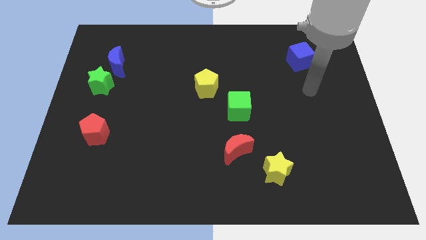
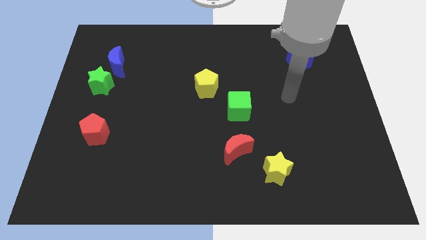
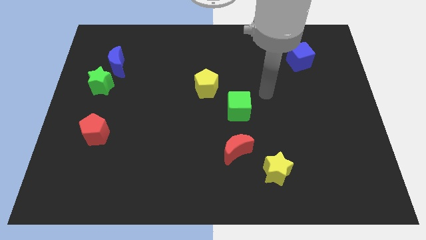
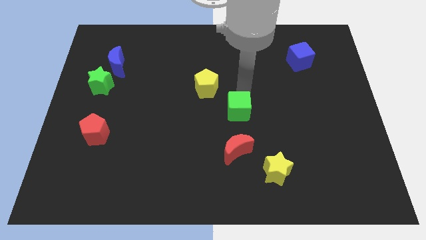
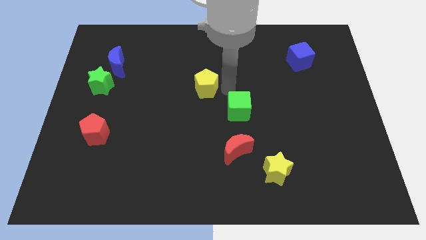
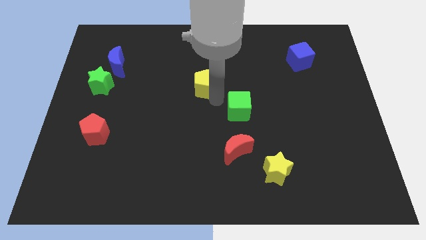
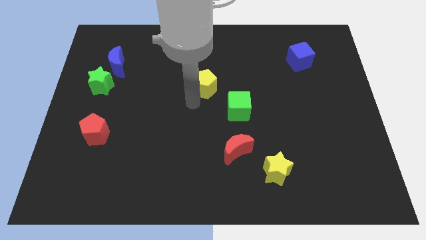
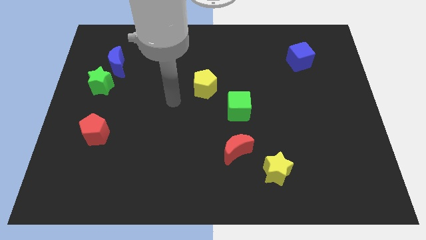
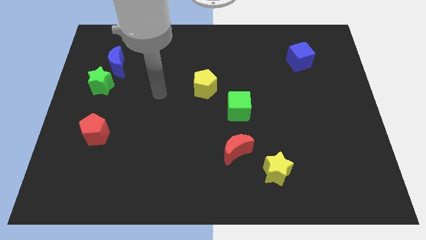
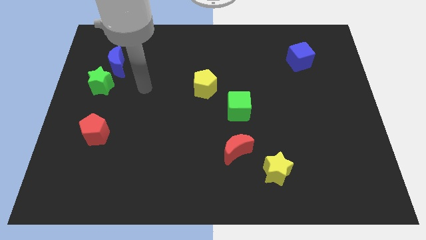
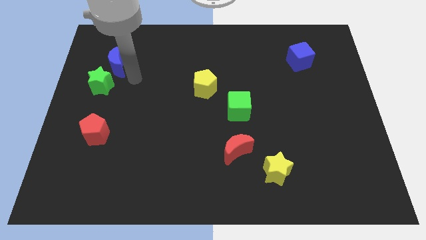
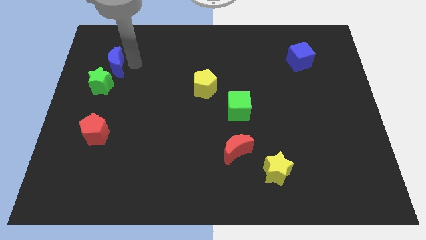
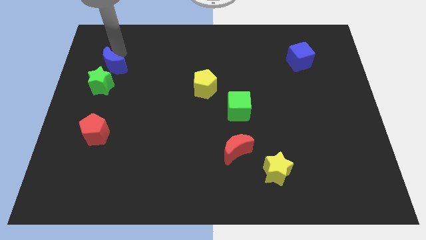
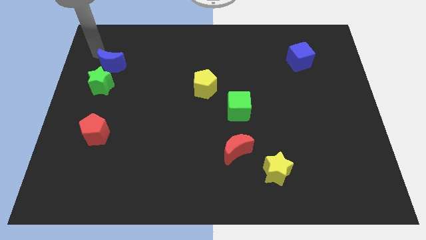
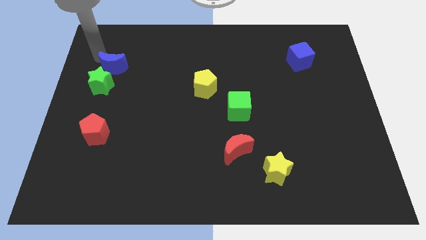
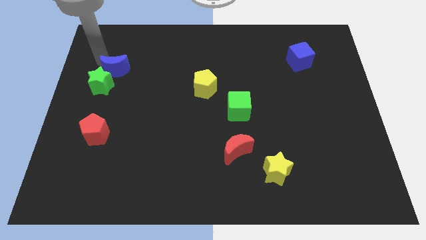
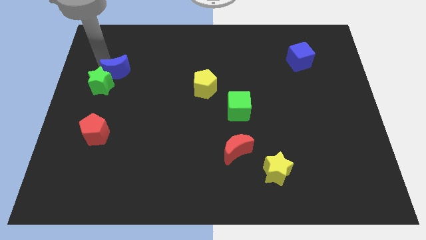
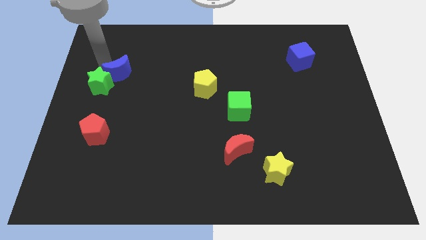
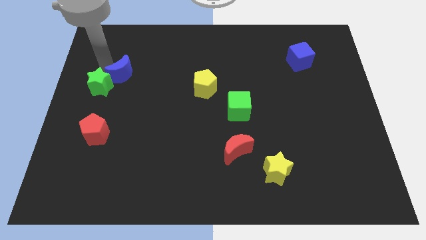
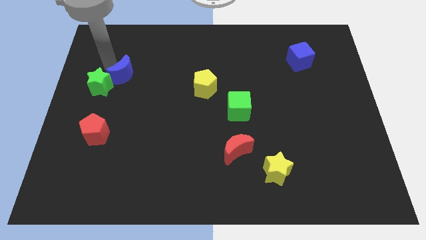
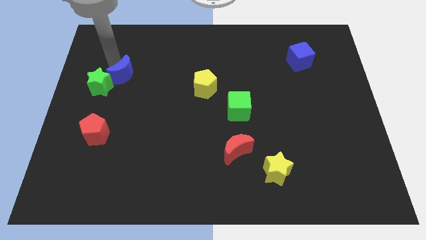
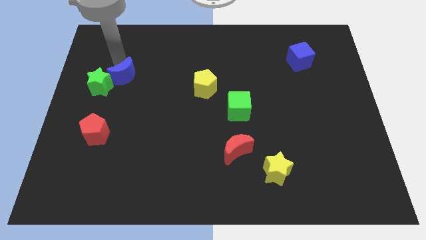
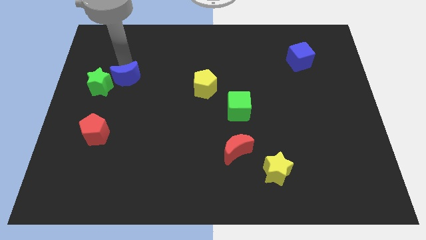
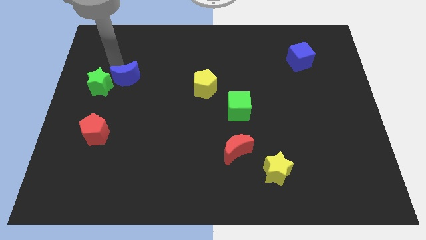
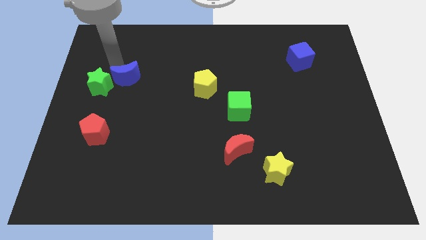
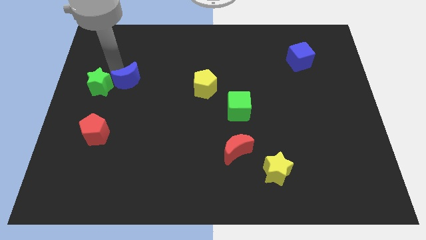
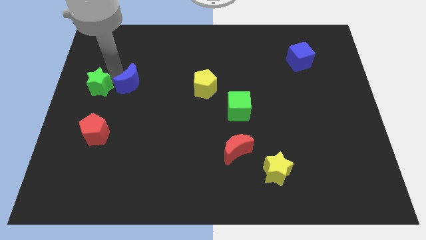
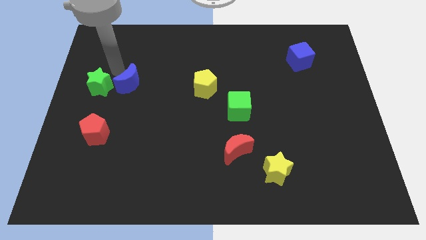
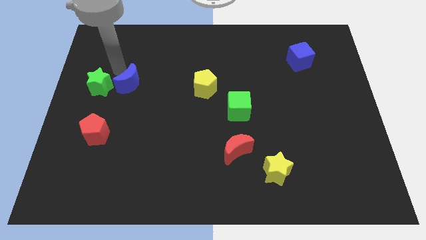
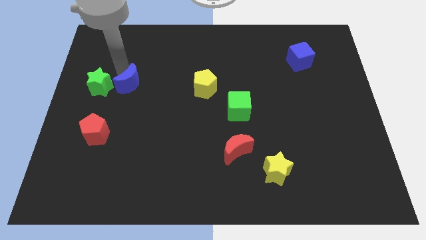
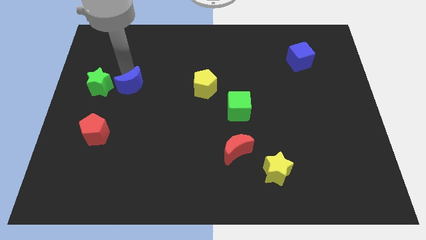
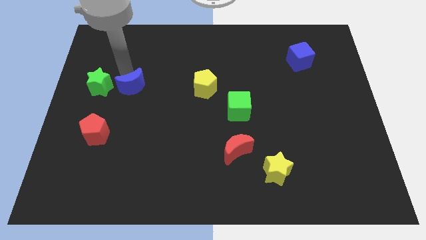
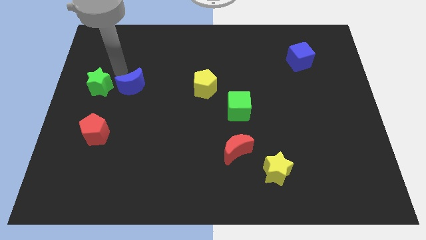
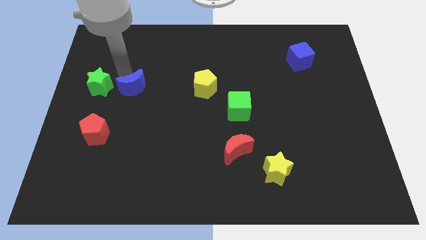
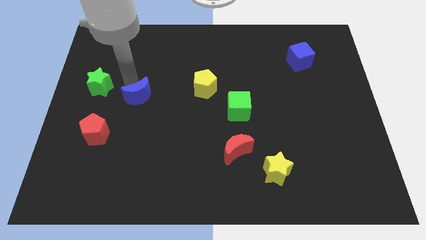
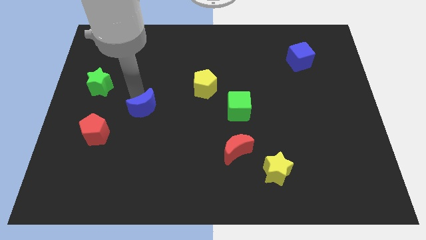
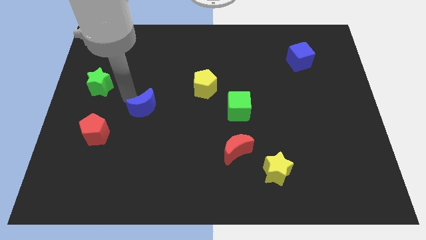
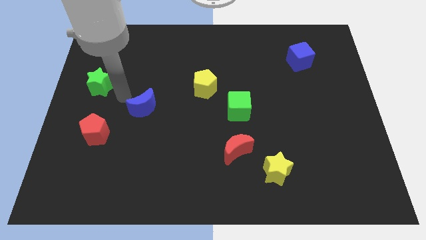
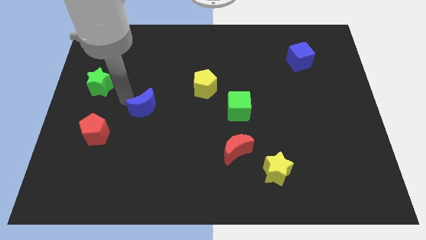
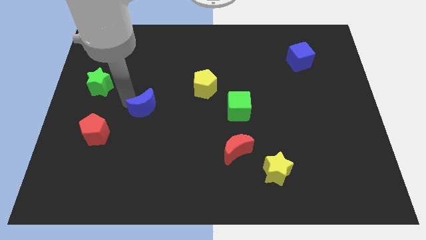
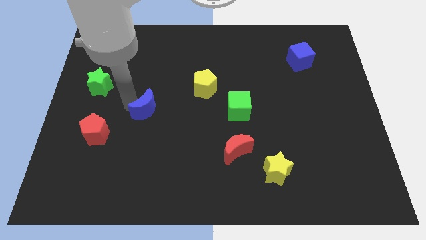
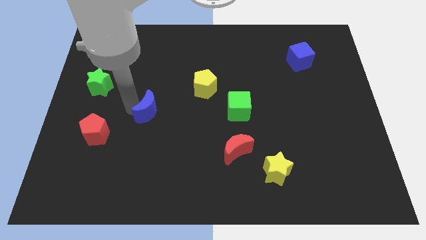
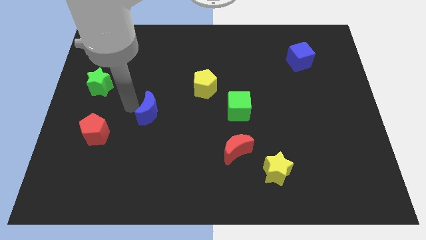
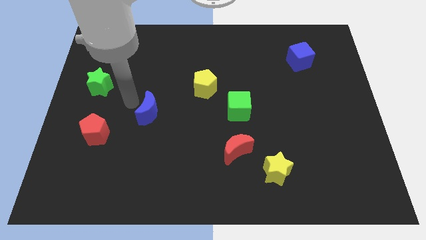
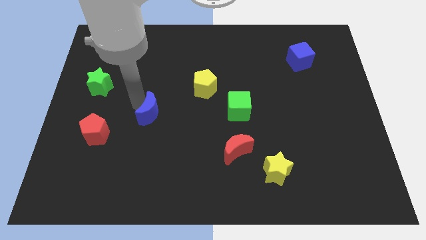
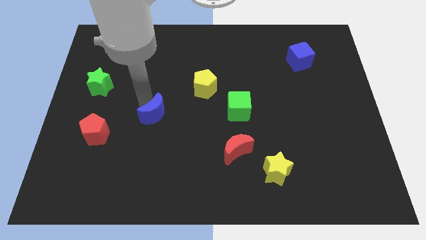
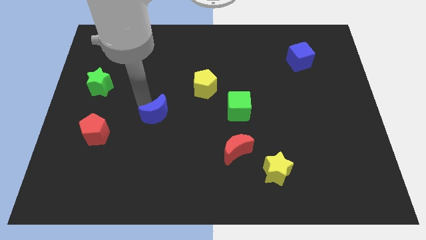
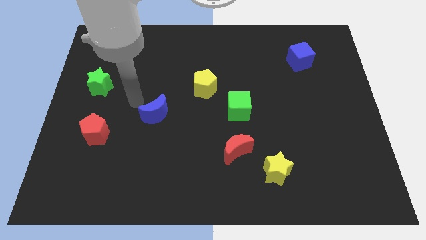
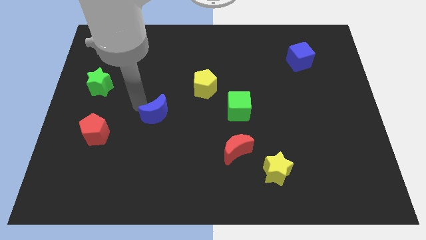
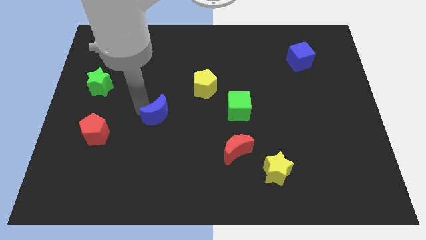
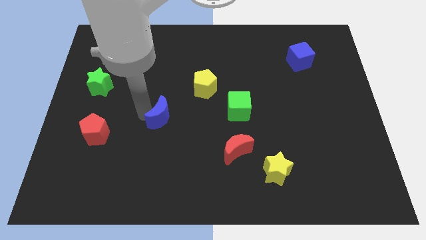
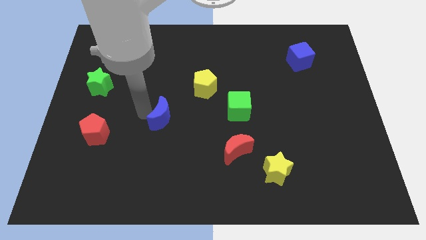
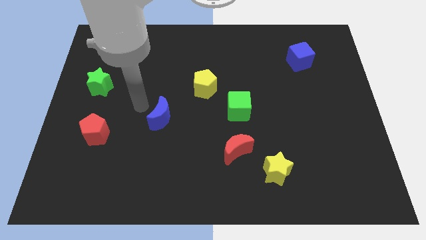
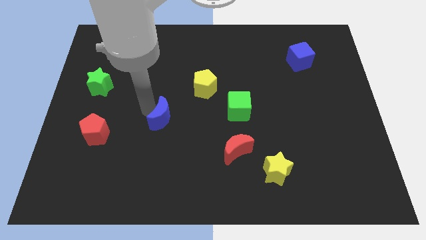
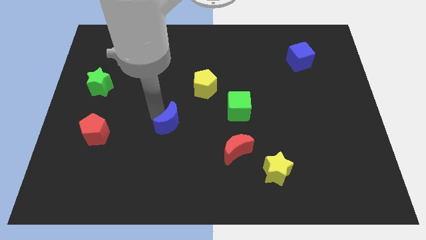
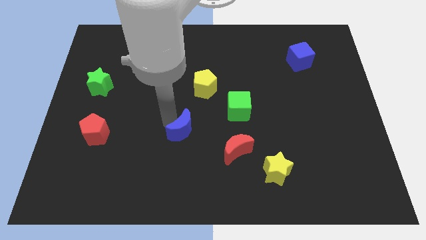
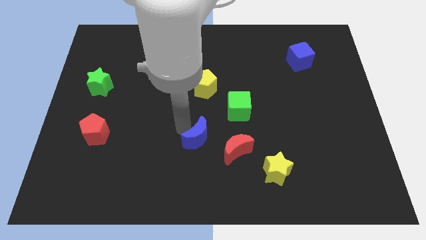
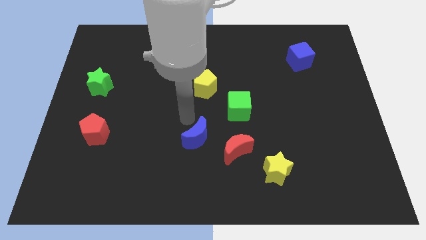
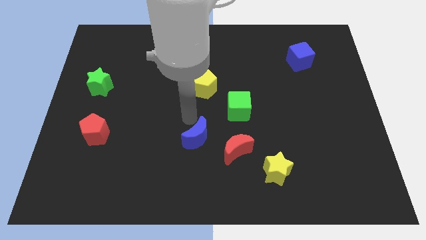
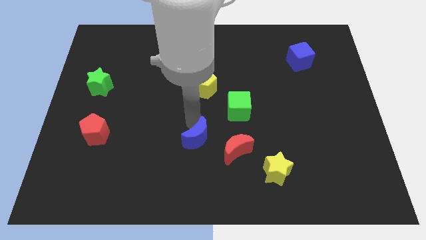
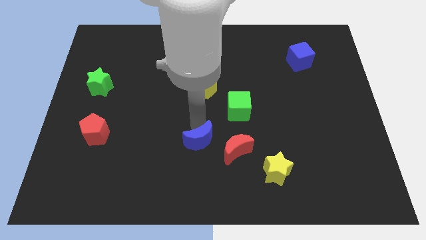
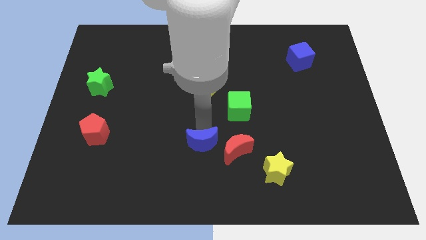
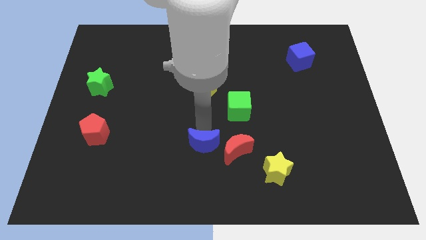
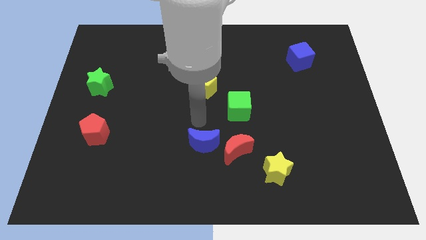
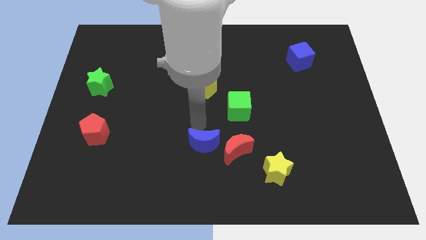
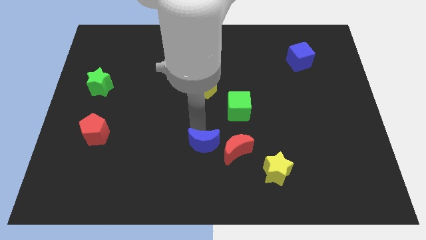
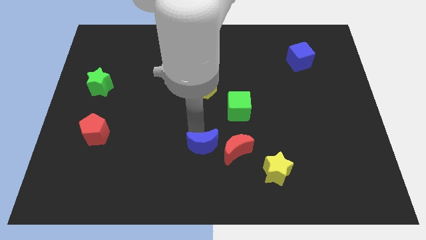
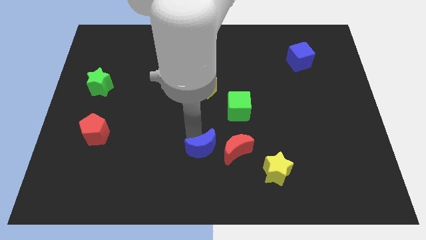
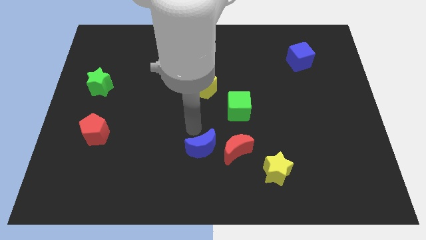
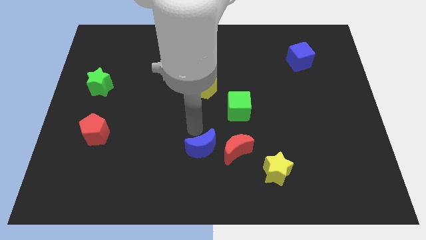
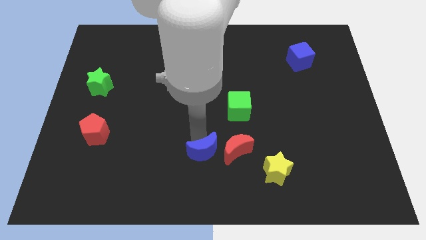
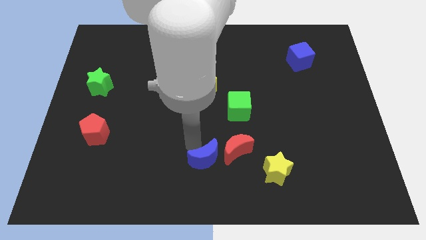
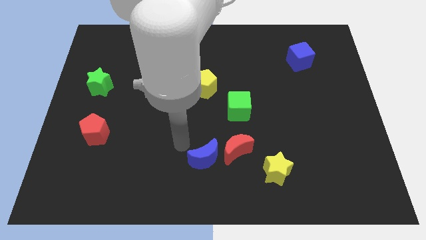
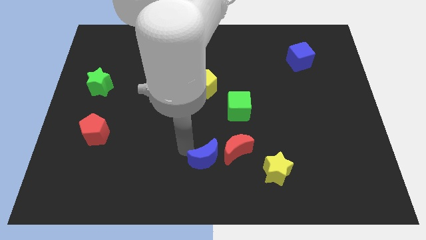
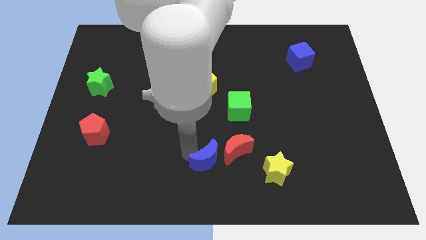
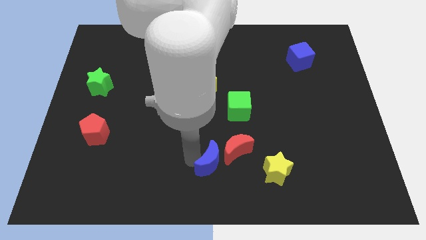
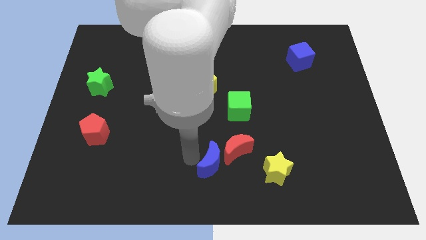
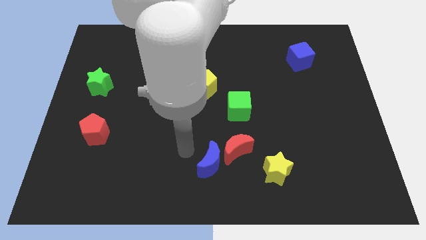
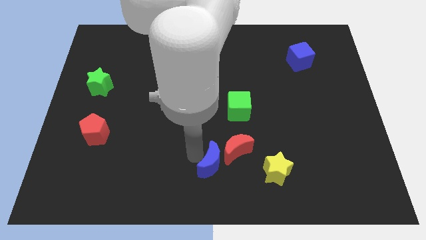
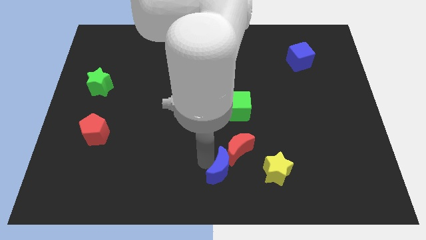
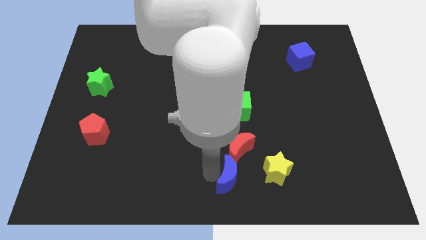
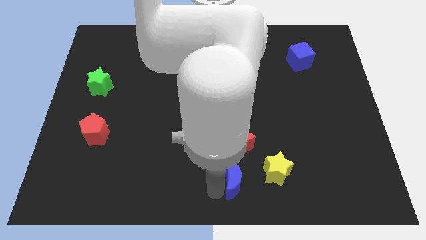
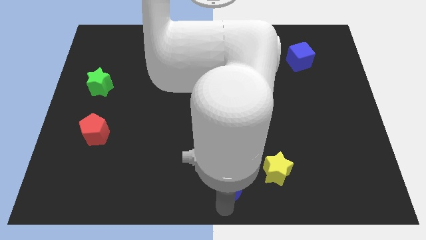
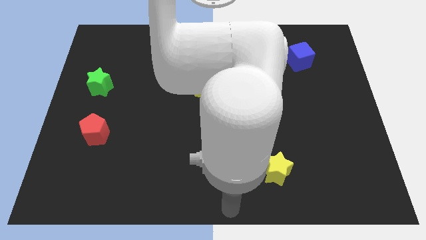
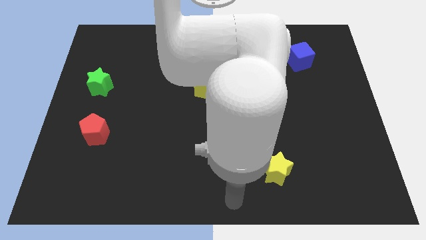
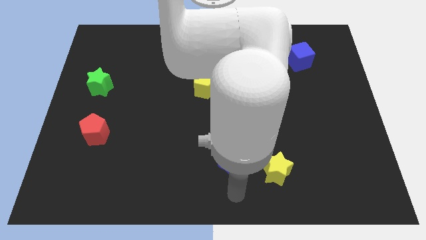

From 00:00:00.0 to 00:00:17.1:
push the blue moon to the bottom of the green cube
